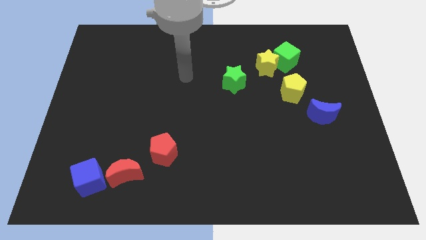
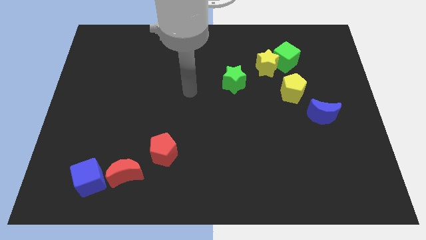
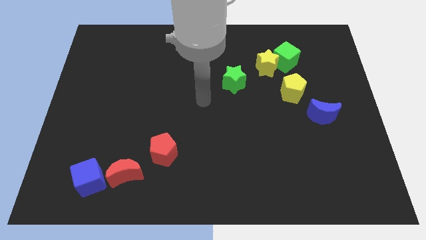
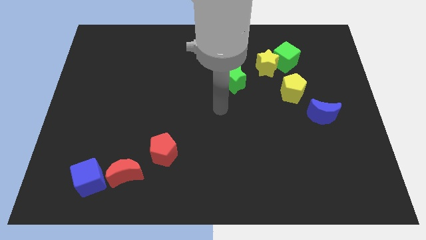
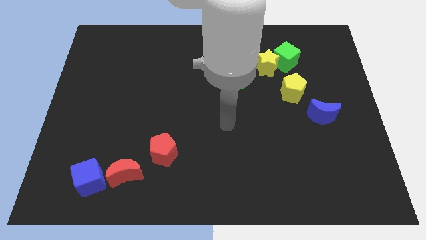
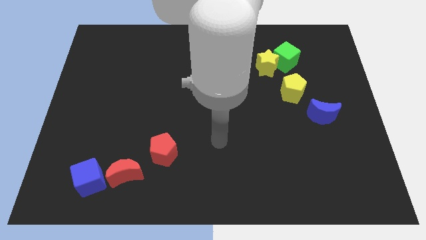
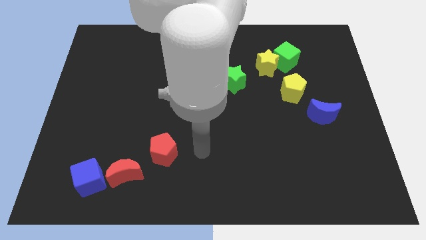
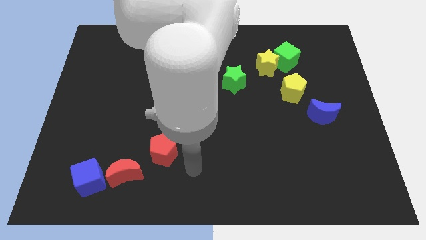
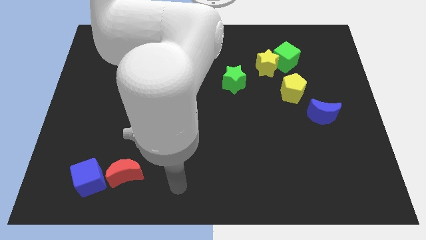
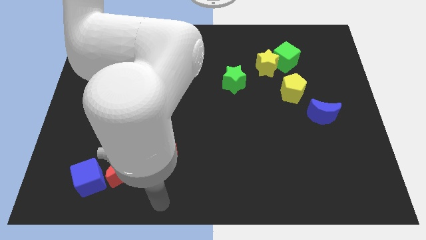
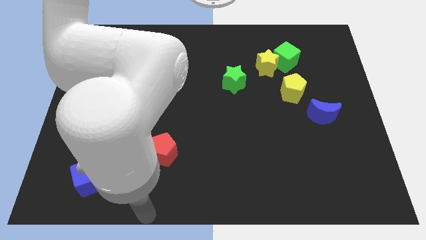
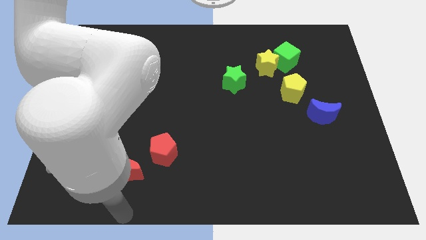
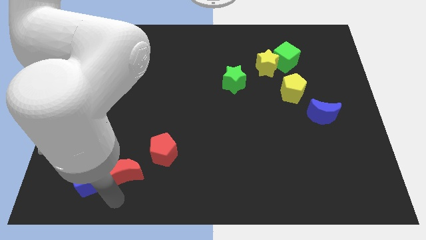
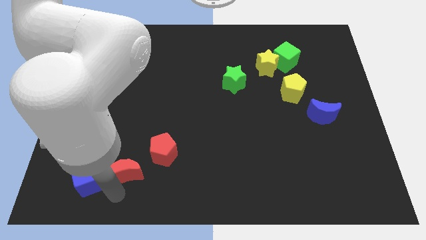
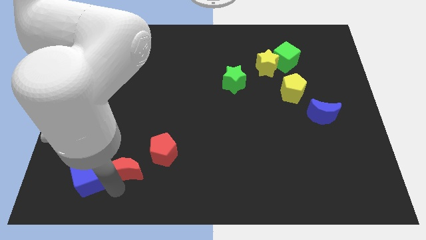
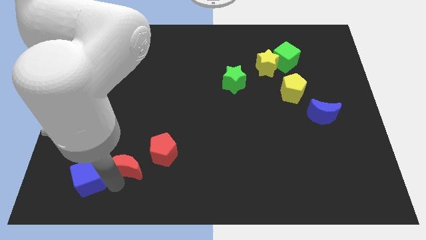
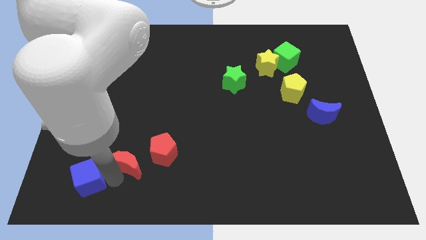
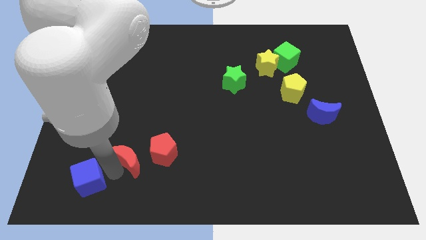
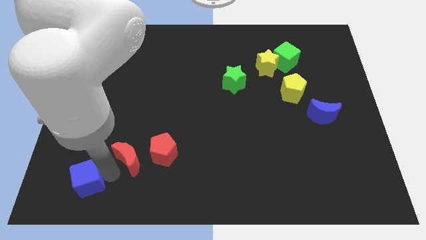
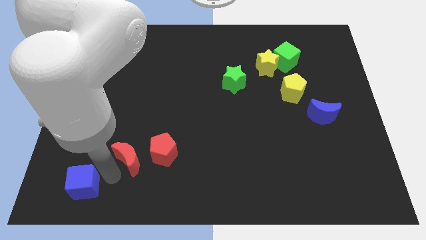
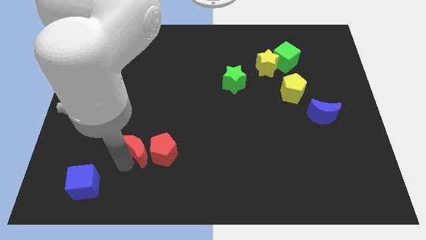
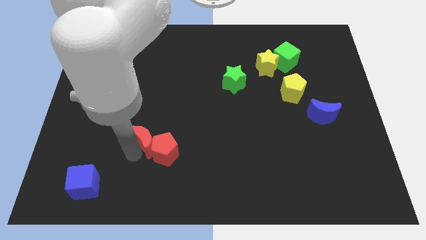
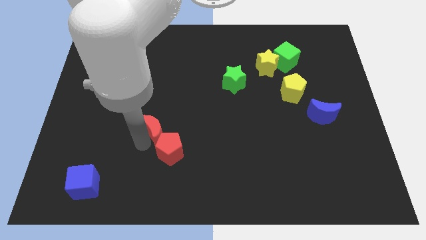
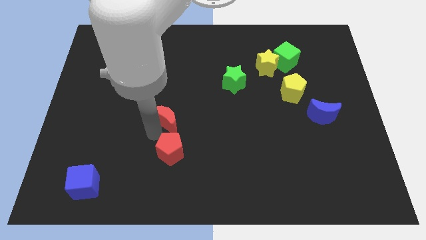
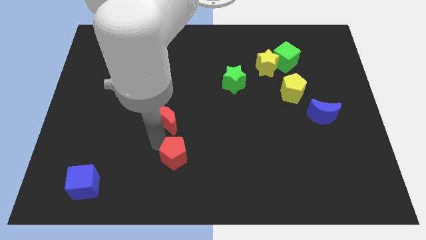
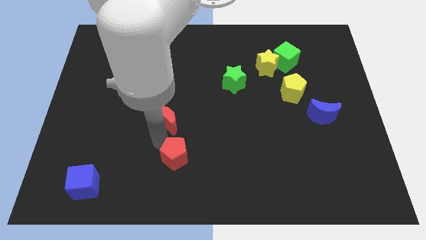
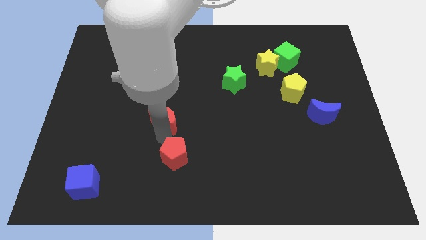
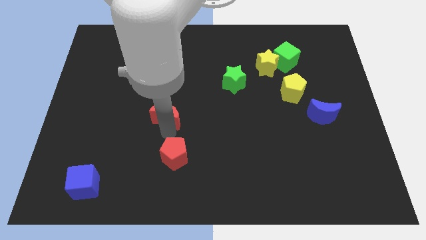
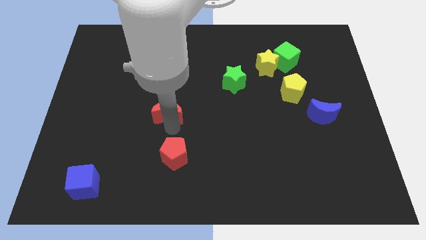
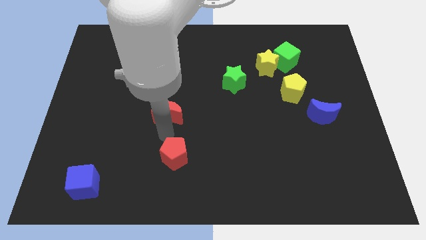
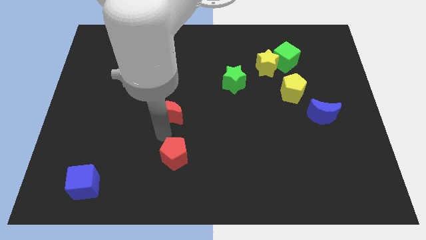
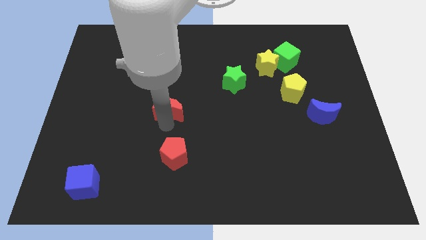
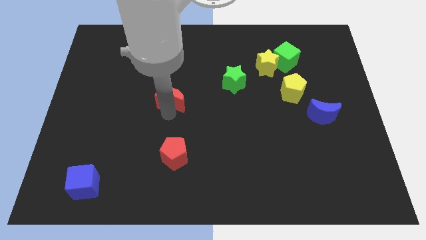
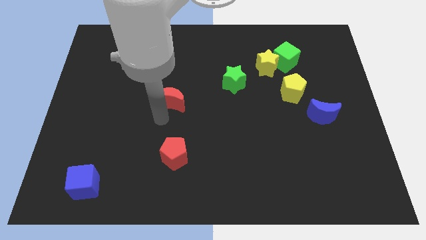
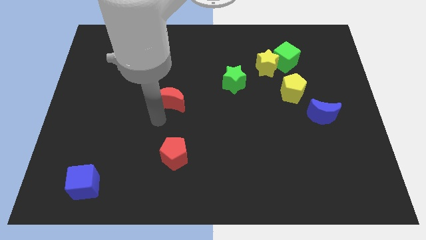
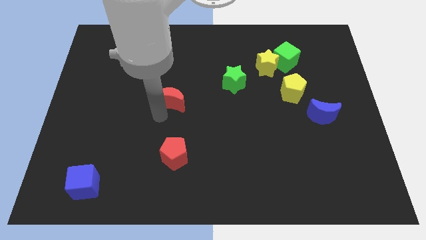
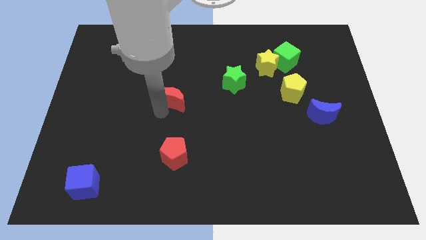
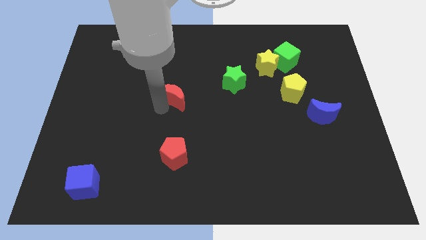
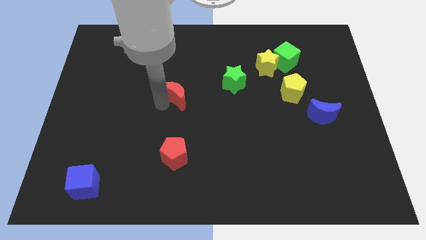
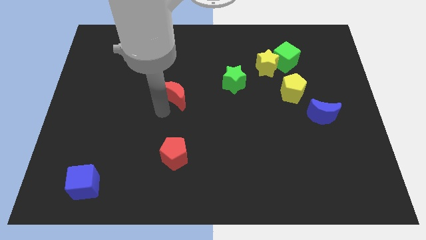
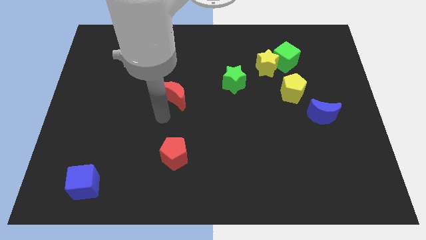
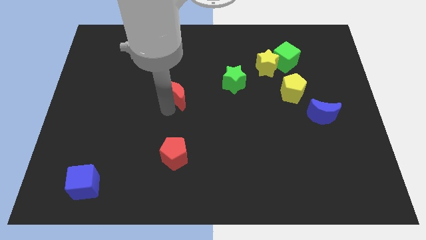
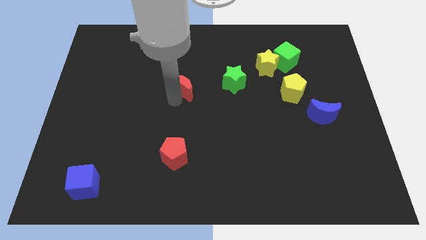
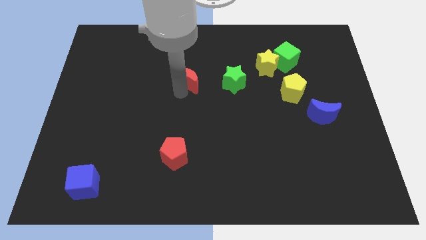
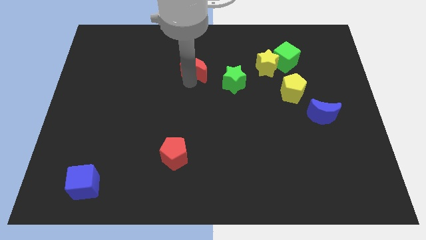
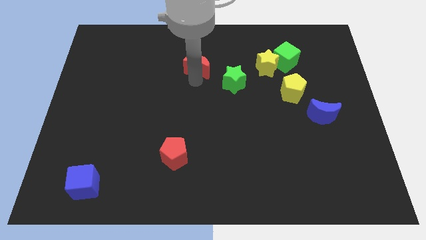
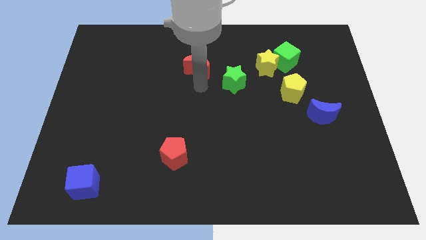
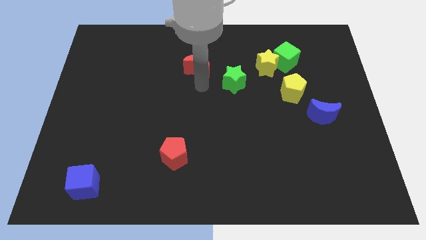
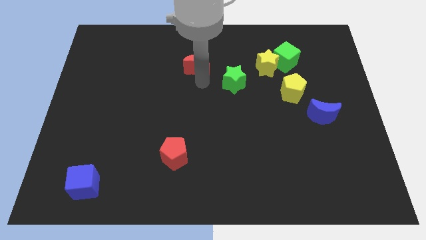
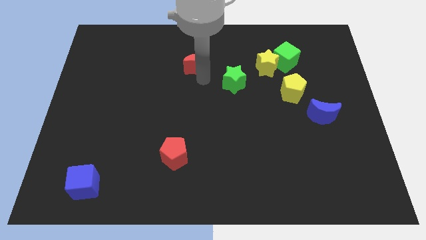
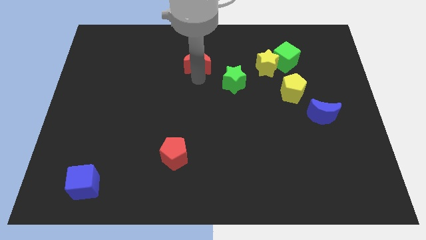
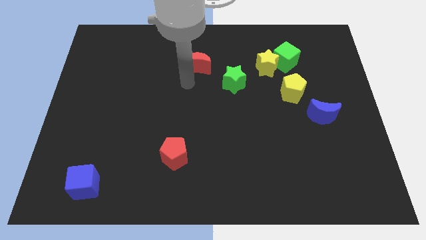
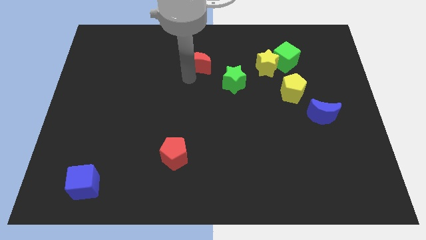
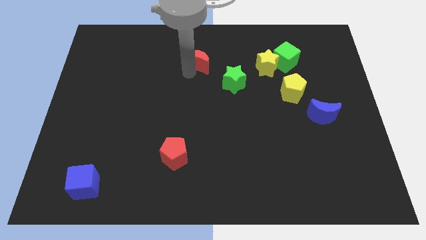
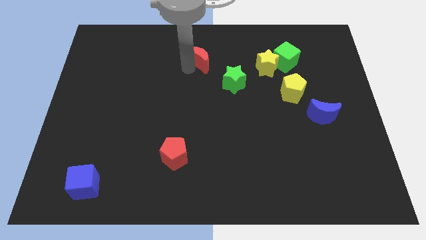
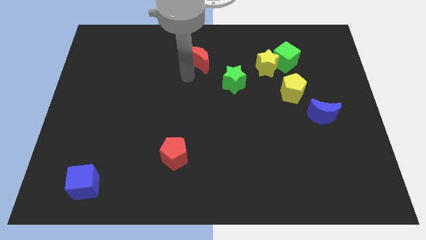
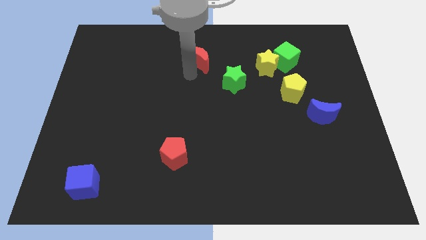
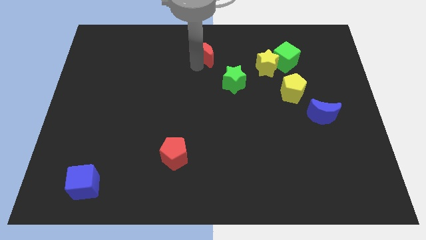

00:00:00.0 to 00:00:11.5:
move the red moon to the top

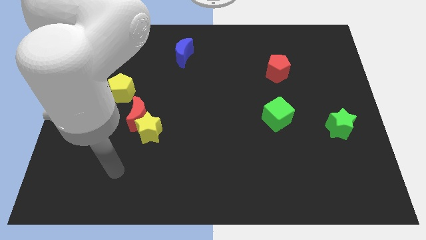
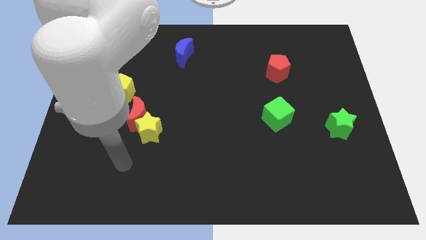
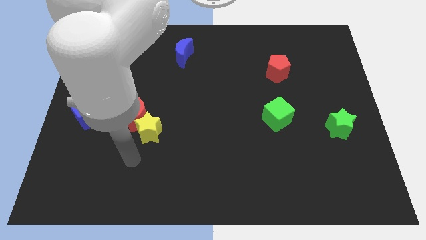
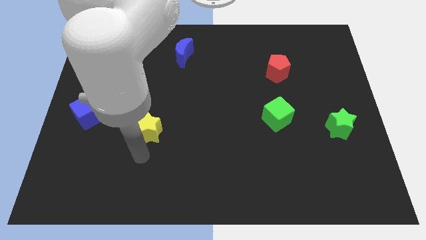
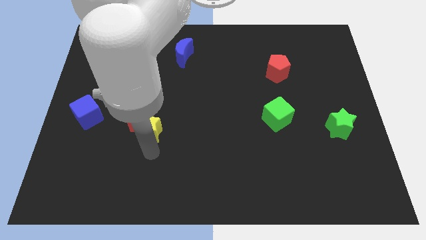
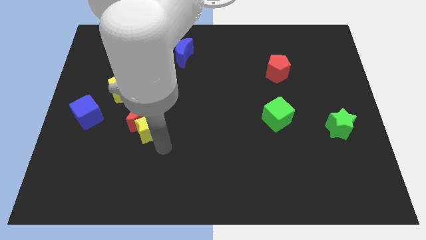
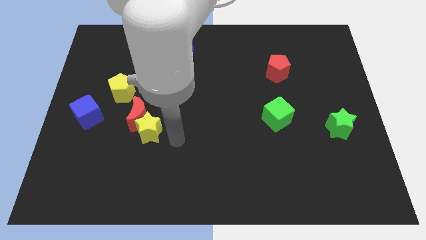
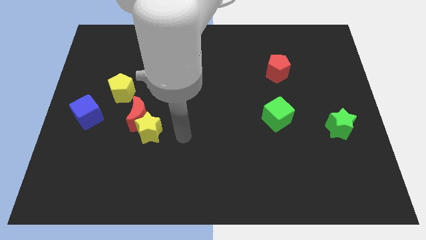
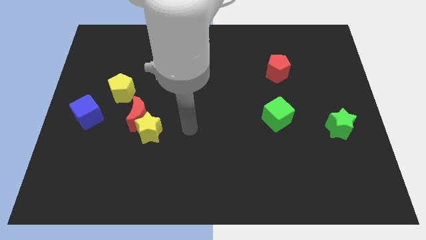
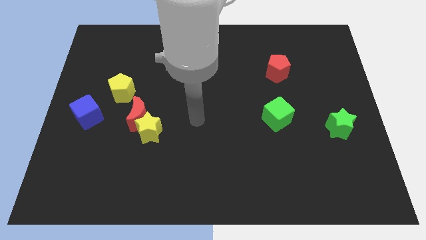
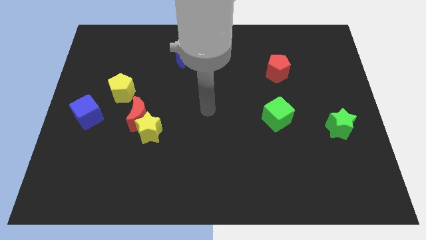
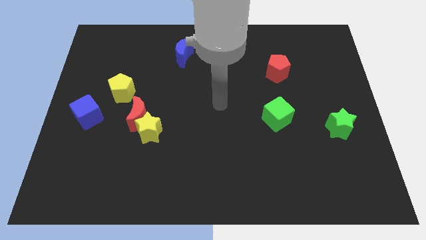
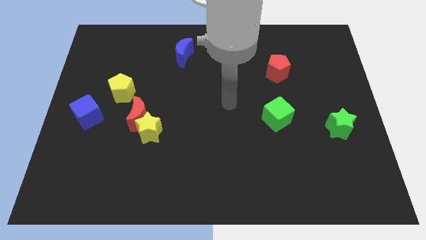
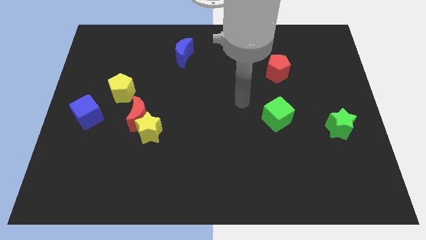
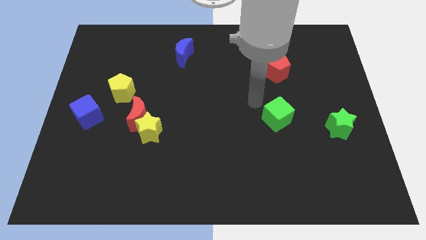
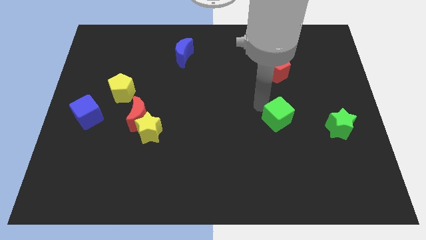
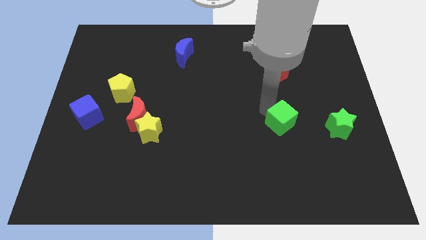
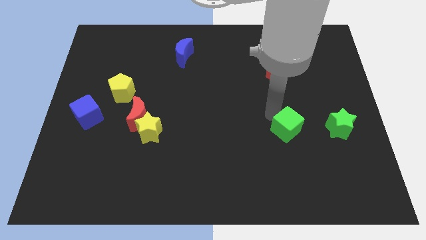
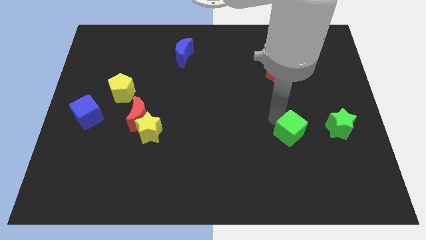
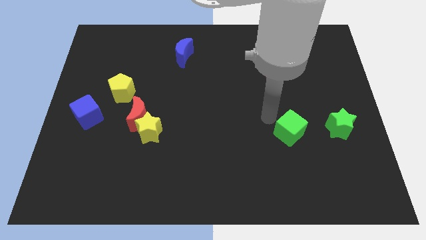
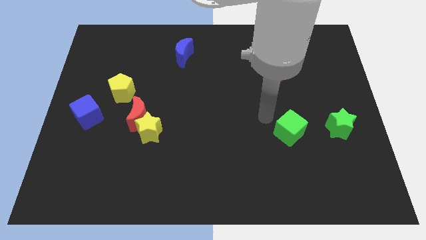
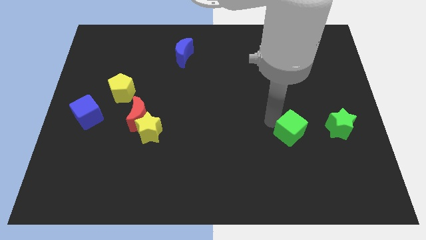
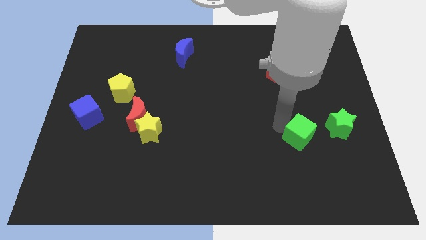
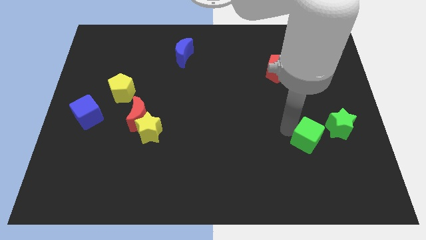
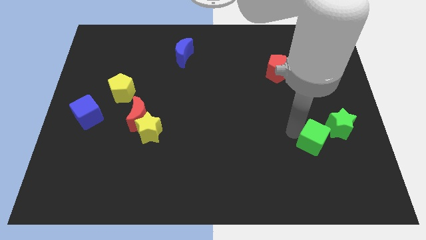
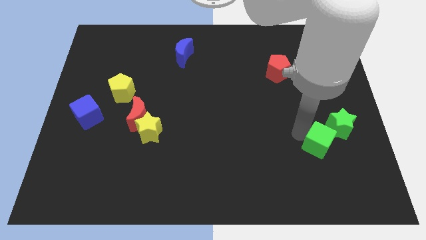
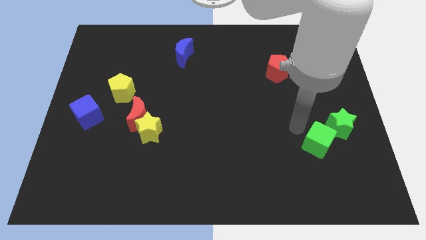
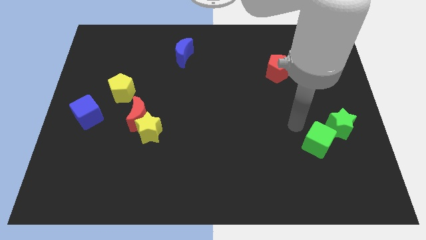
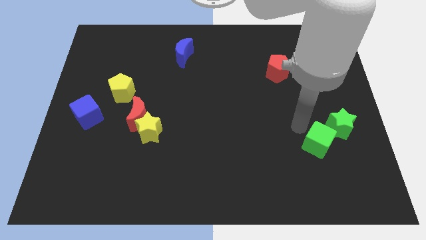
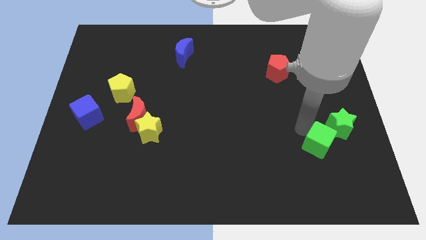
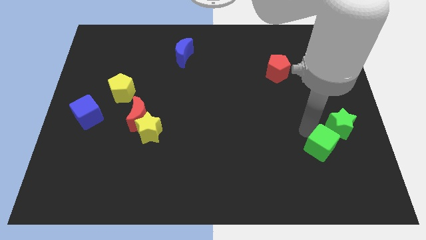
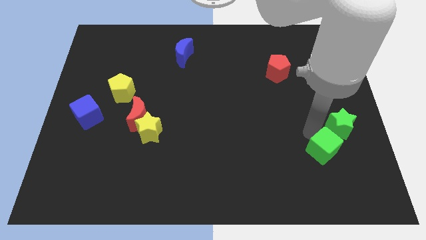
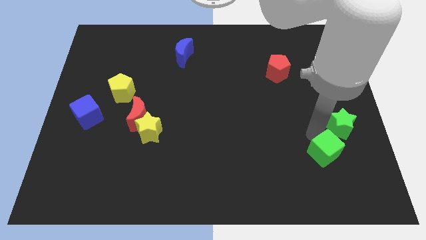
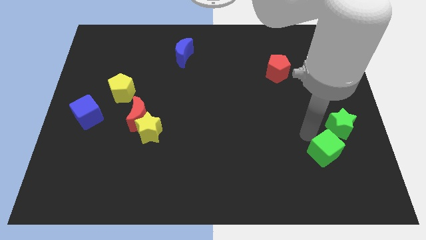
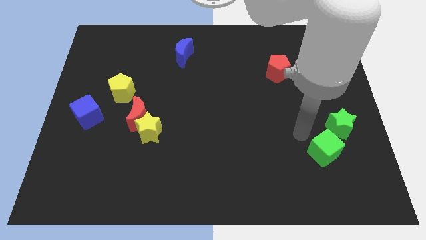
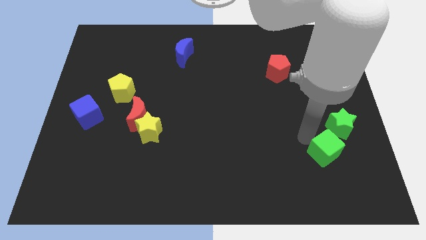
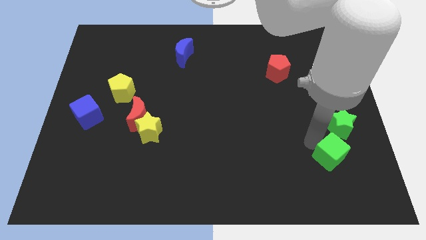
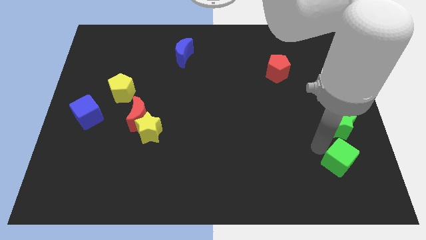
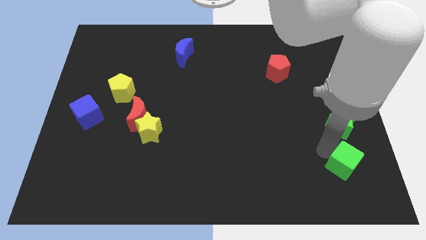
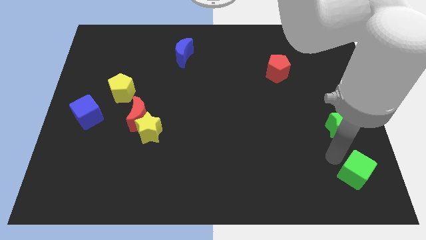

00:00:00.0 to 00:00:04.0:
push the green cube to the bottom right of the board
